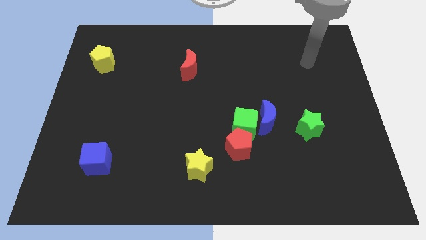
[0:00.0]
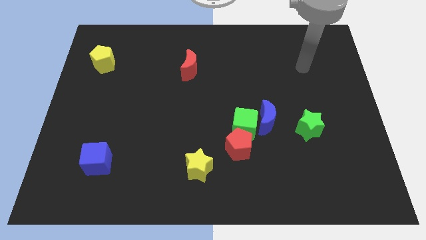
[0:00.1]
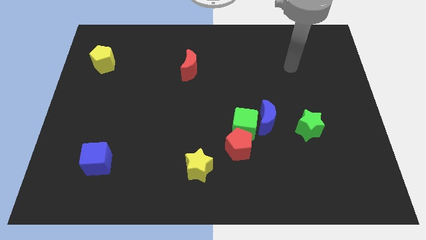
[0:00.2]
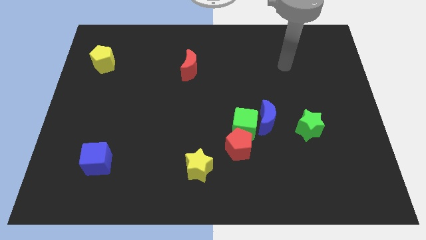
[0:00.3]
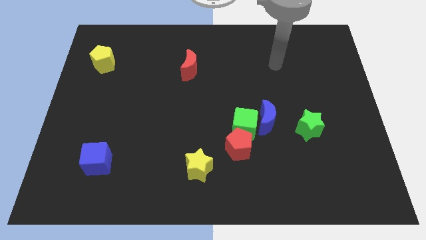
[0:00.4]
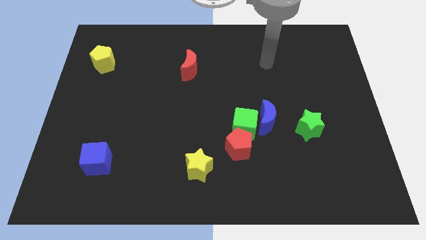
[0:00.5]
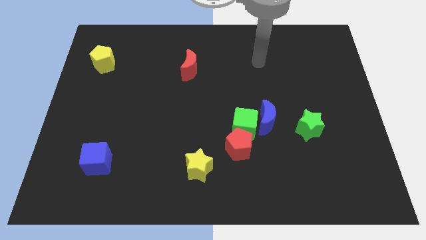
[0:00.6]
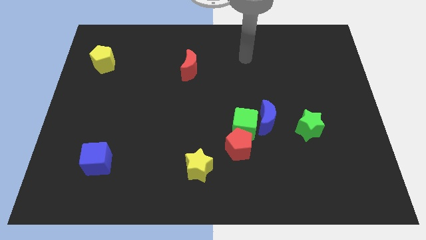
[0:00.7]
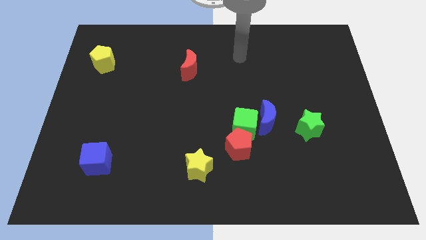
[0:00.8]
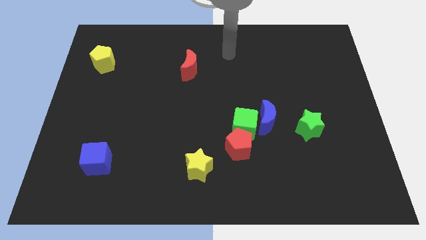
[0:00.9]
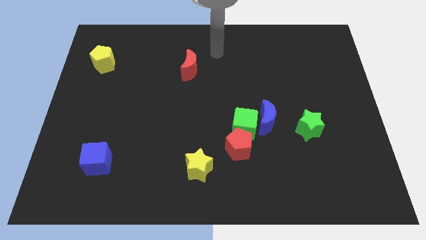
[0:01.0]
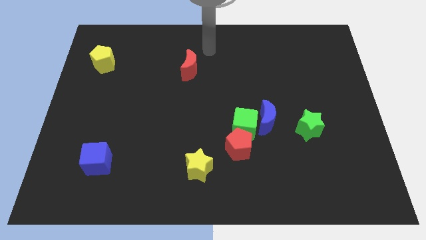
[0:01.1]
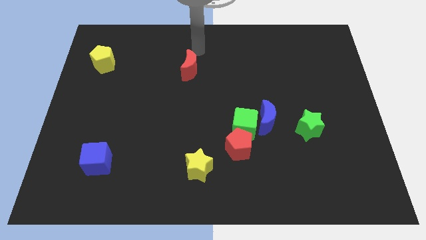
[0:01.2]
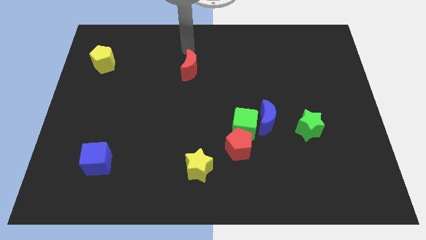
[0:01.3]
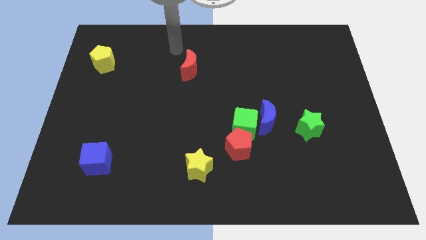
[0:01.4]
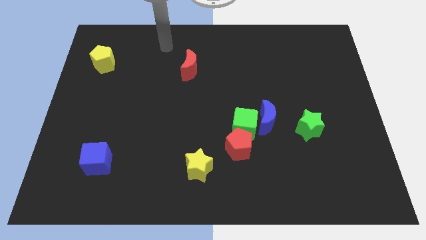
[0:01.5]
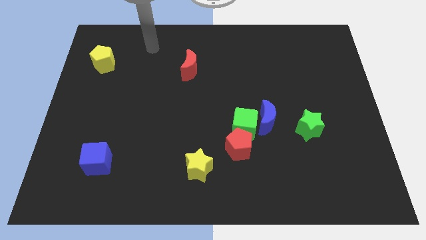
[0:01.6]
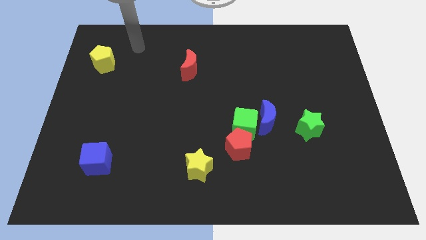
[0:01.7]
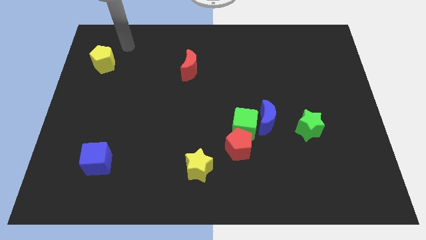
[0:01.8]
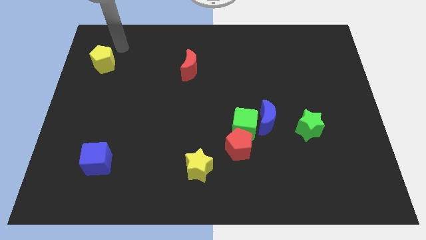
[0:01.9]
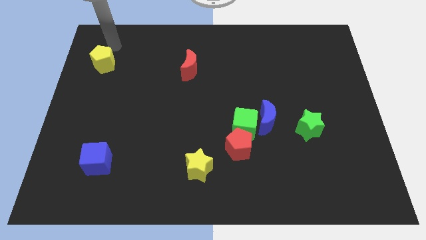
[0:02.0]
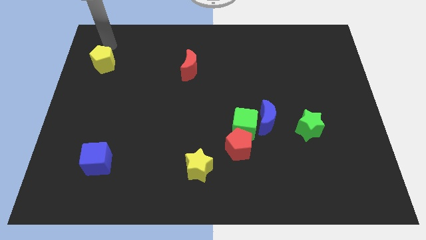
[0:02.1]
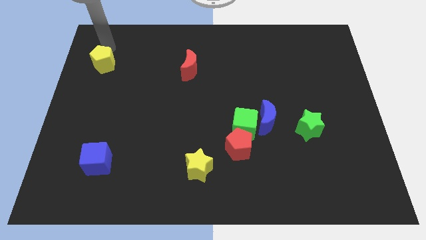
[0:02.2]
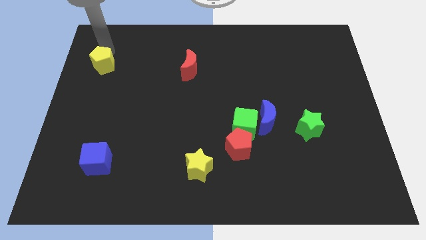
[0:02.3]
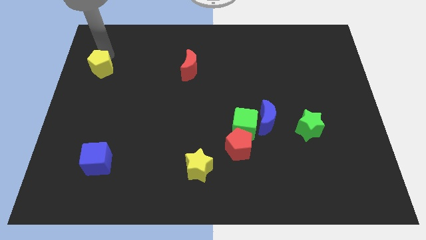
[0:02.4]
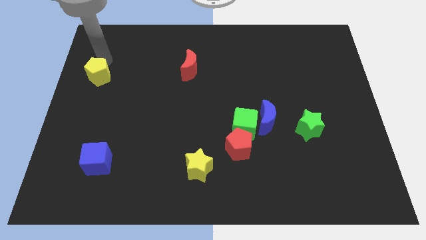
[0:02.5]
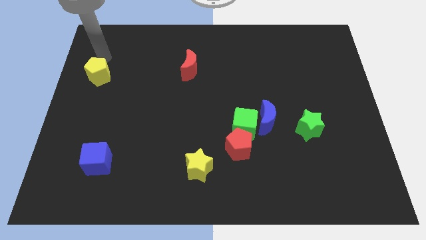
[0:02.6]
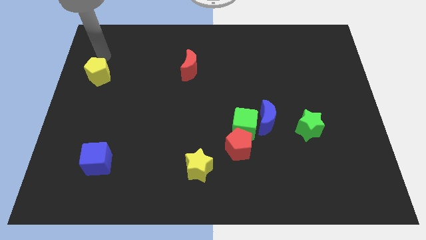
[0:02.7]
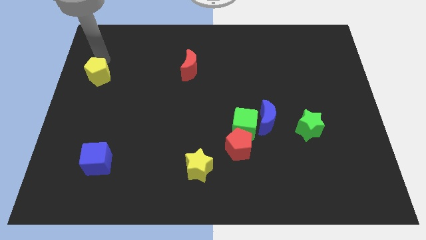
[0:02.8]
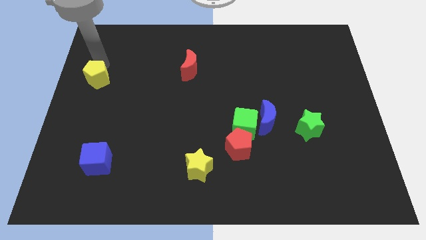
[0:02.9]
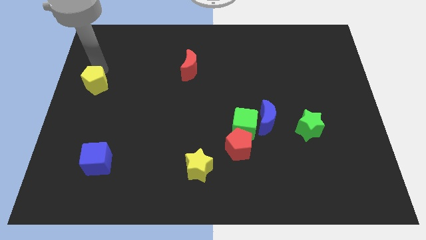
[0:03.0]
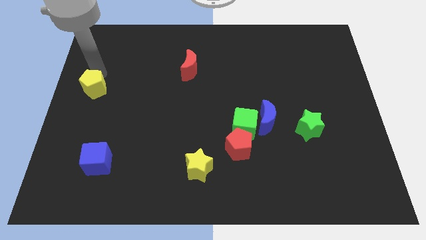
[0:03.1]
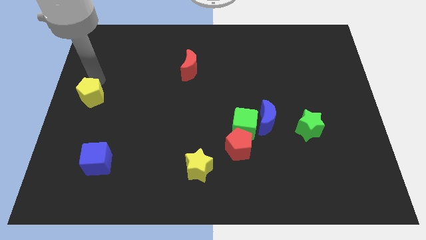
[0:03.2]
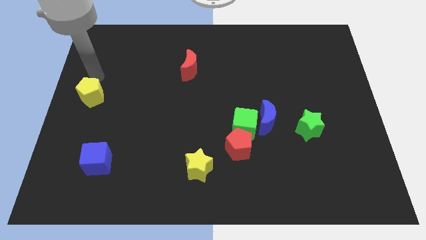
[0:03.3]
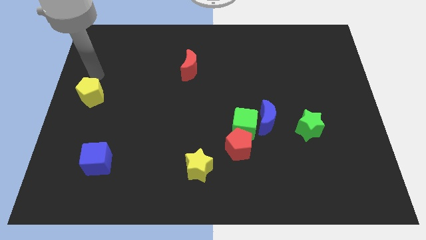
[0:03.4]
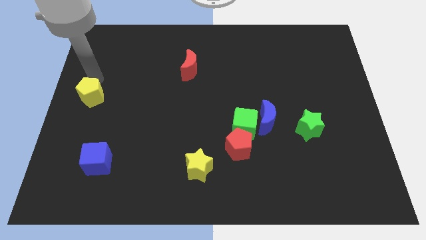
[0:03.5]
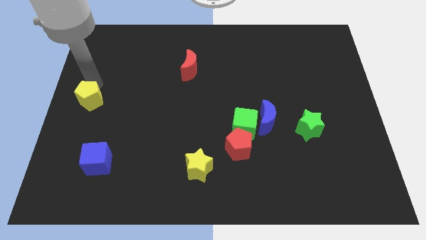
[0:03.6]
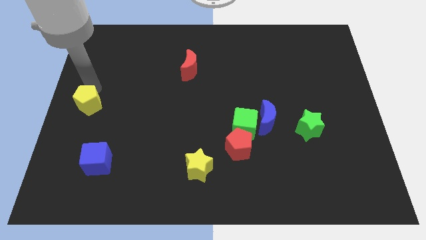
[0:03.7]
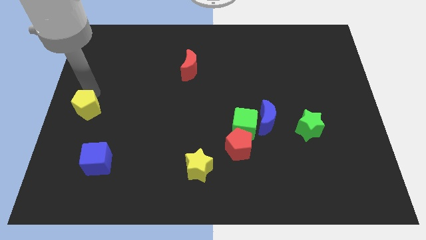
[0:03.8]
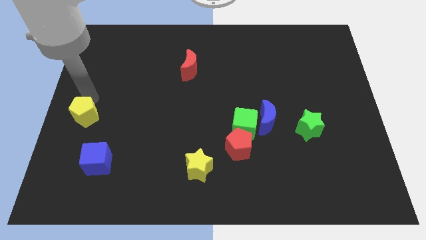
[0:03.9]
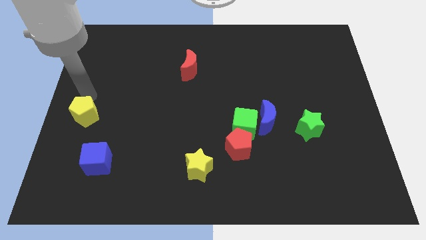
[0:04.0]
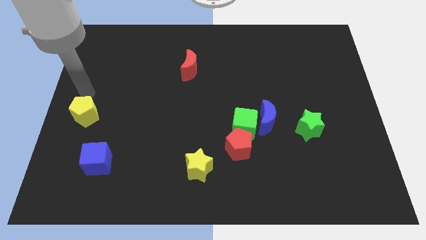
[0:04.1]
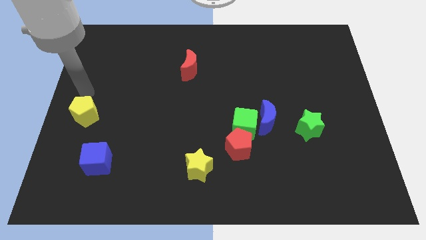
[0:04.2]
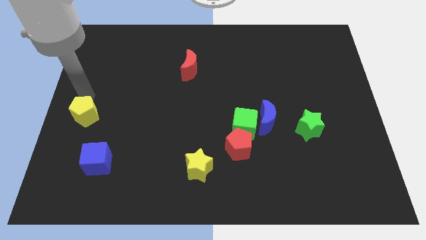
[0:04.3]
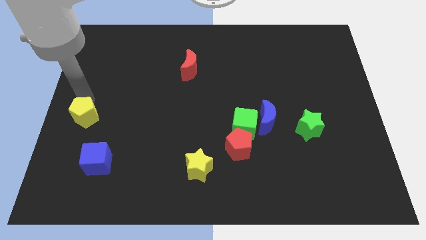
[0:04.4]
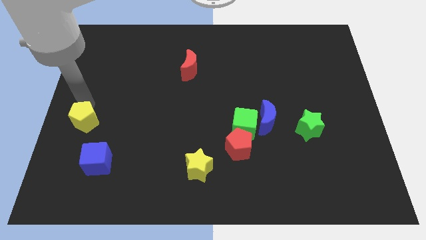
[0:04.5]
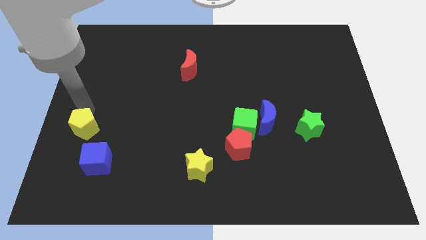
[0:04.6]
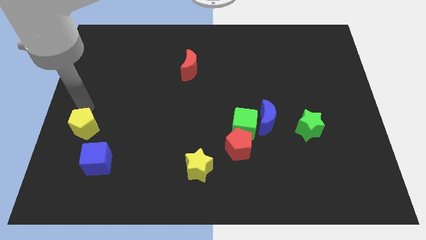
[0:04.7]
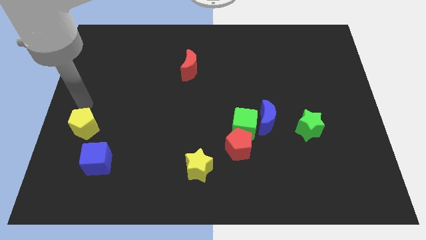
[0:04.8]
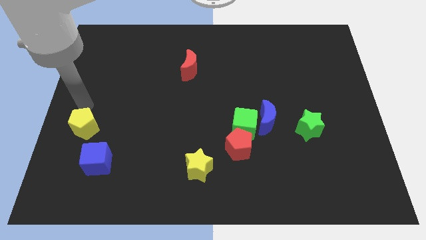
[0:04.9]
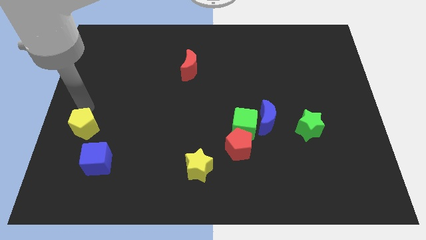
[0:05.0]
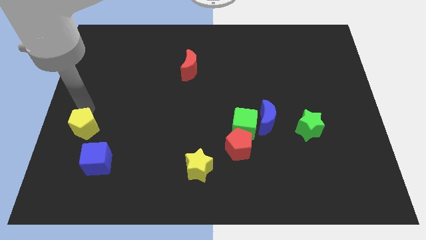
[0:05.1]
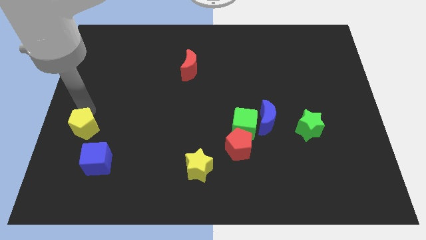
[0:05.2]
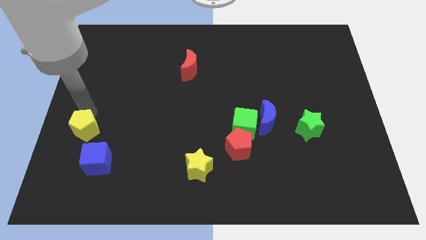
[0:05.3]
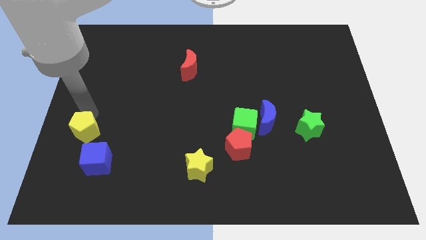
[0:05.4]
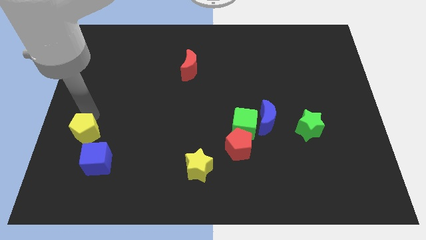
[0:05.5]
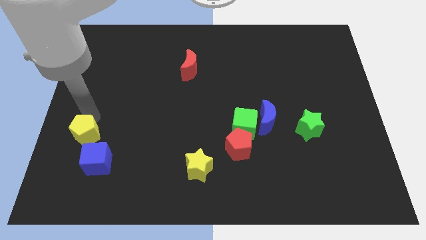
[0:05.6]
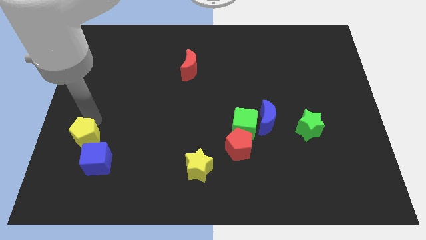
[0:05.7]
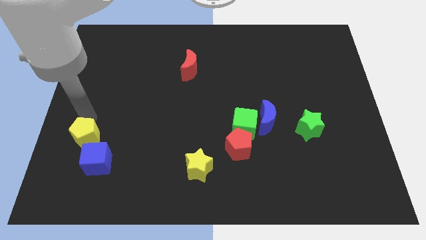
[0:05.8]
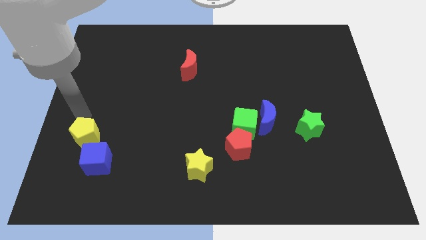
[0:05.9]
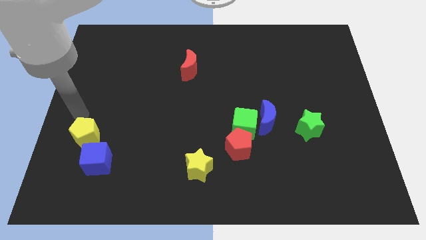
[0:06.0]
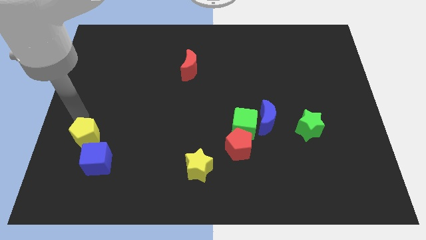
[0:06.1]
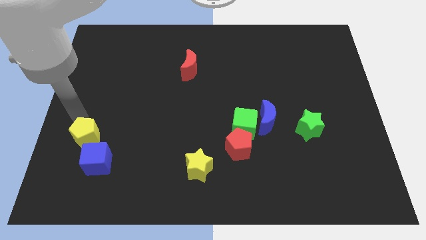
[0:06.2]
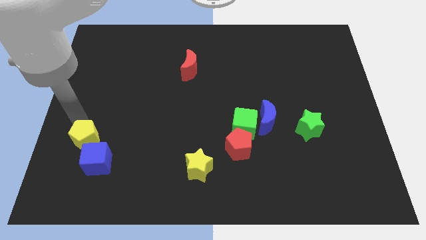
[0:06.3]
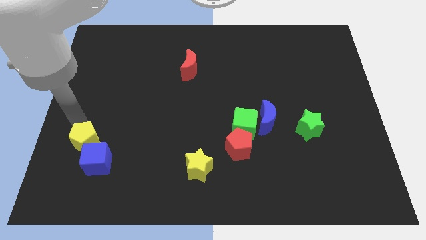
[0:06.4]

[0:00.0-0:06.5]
slide the yellow pentagon towards the blue cube
